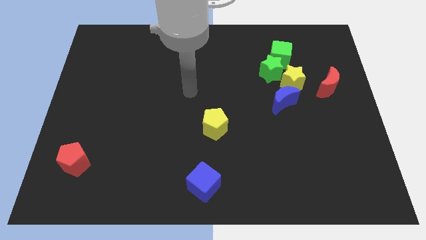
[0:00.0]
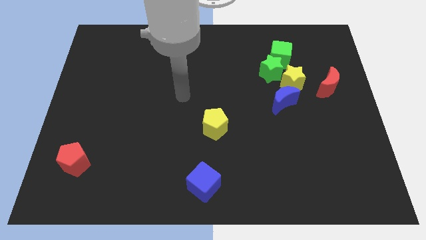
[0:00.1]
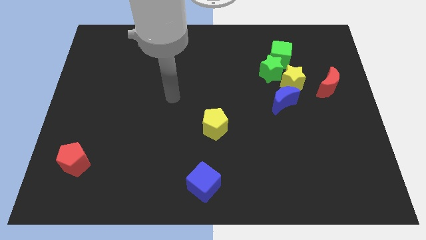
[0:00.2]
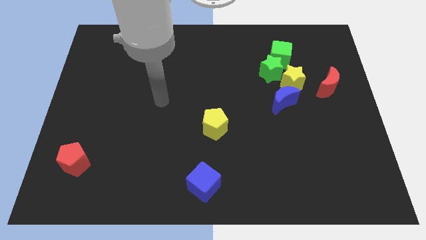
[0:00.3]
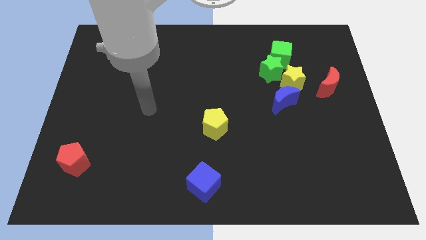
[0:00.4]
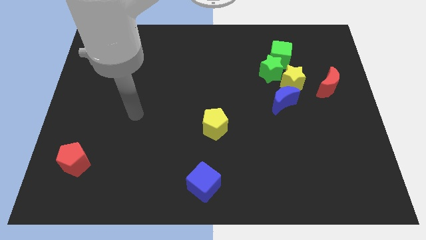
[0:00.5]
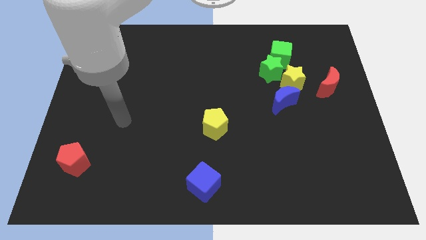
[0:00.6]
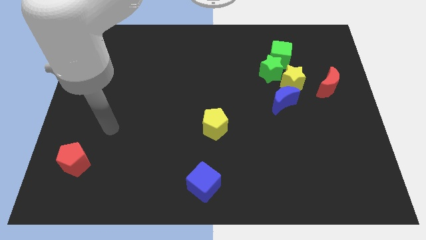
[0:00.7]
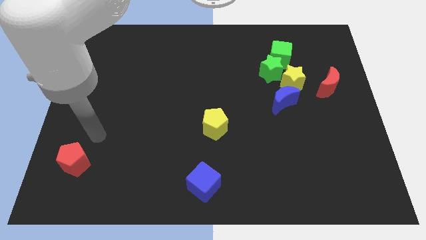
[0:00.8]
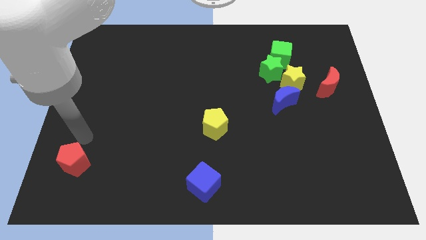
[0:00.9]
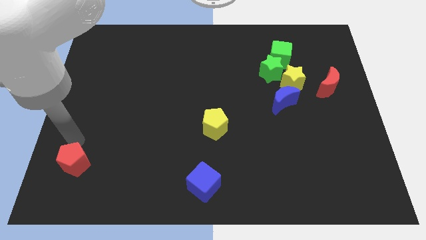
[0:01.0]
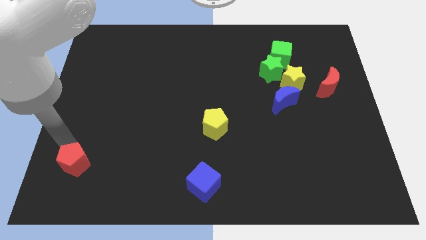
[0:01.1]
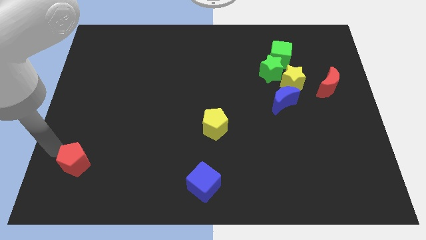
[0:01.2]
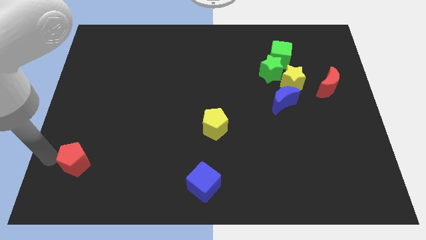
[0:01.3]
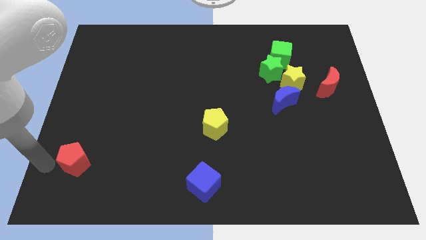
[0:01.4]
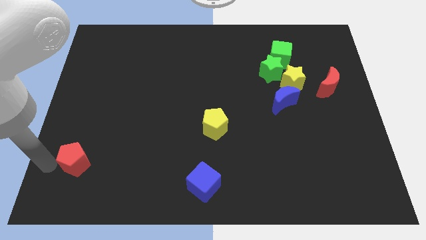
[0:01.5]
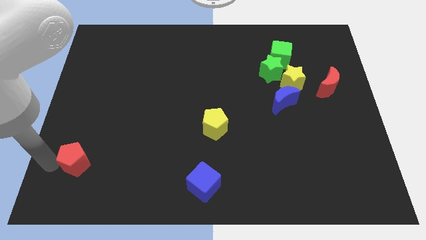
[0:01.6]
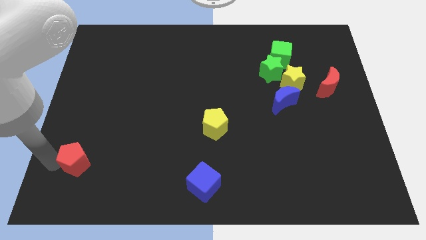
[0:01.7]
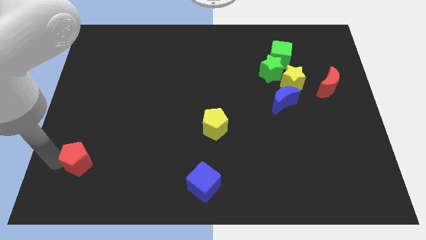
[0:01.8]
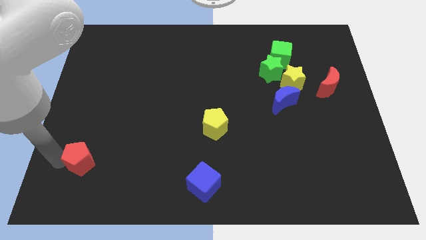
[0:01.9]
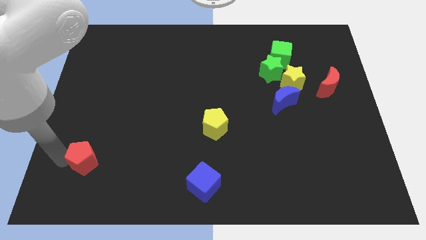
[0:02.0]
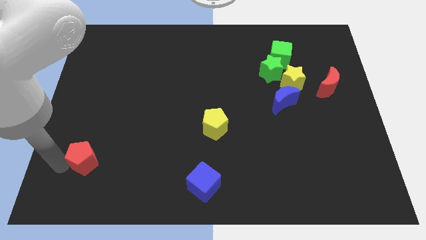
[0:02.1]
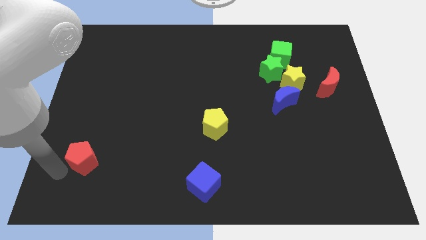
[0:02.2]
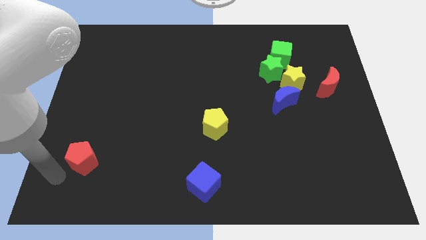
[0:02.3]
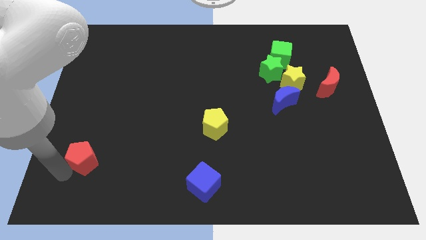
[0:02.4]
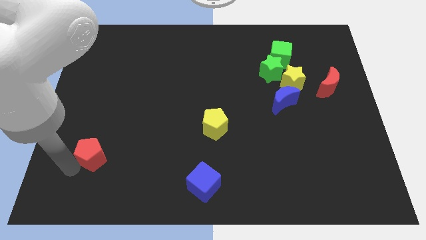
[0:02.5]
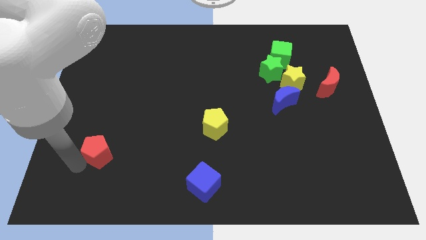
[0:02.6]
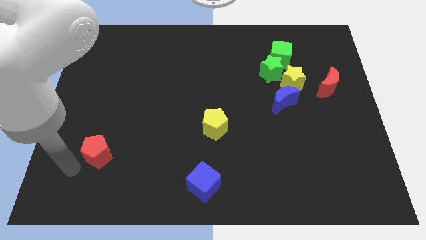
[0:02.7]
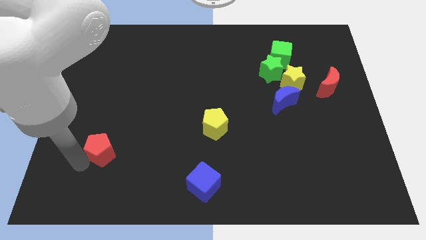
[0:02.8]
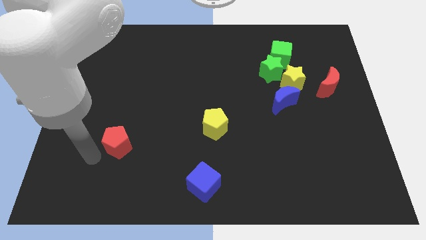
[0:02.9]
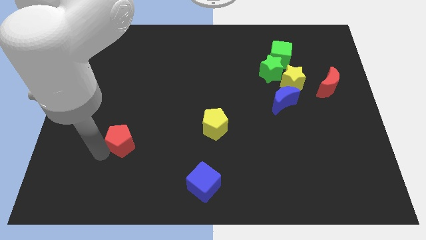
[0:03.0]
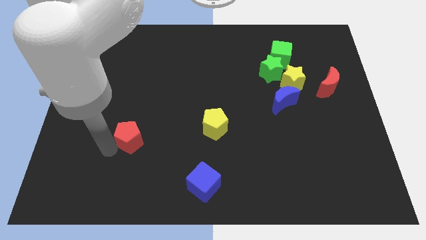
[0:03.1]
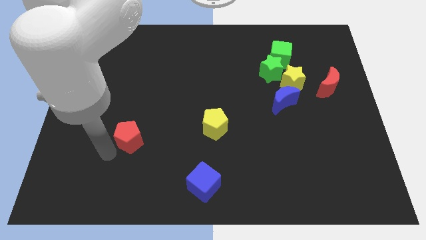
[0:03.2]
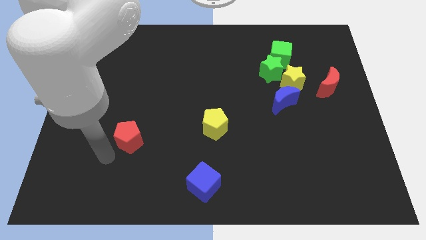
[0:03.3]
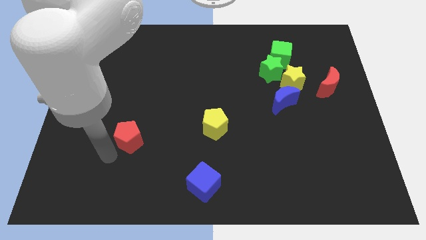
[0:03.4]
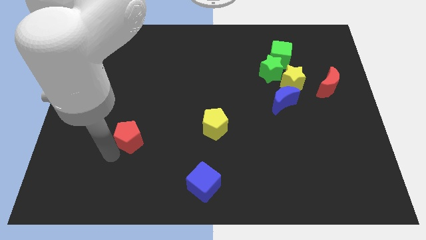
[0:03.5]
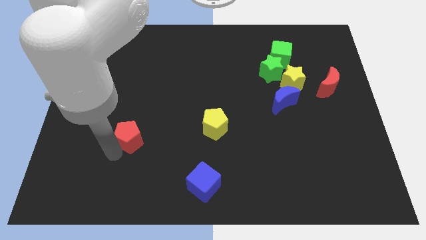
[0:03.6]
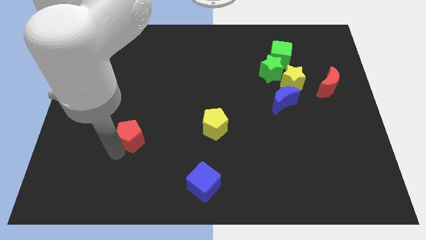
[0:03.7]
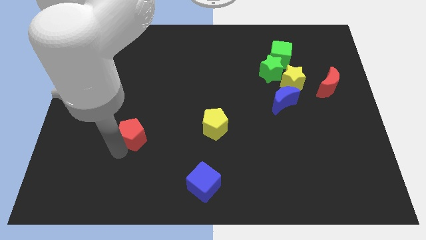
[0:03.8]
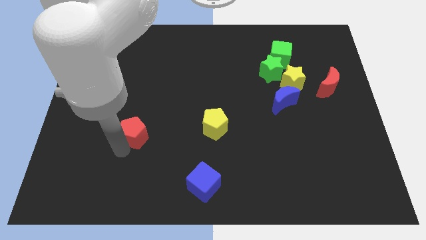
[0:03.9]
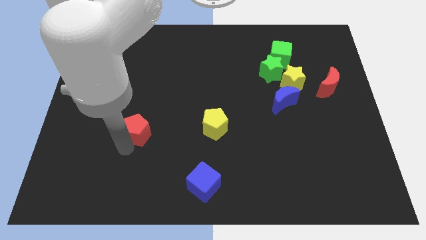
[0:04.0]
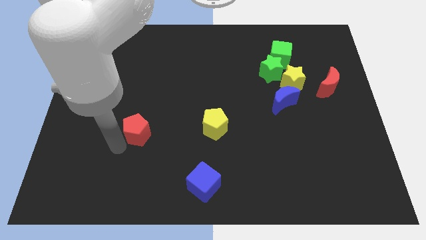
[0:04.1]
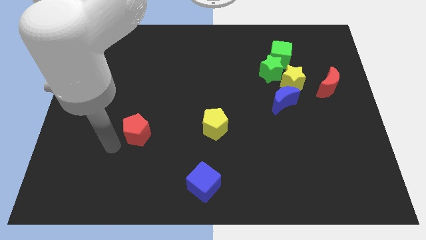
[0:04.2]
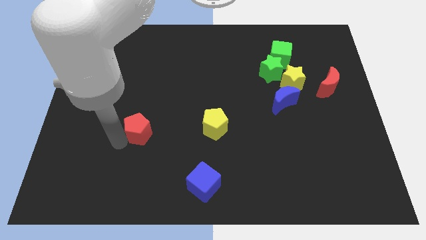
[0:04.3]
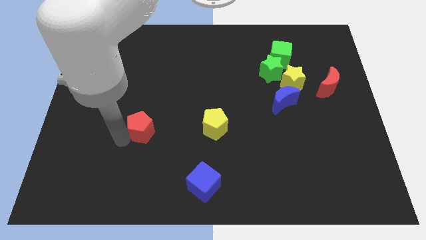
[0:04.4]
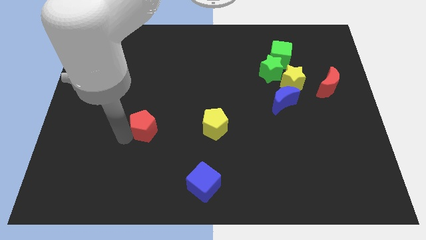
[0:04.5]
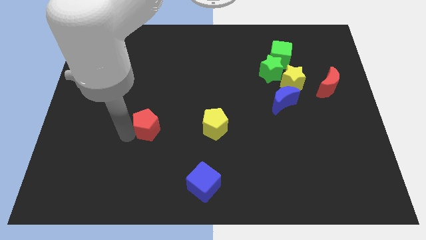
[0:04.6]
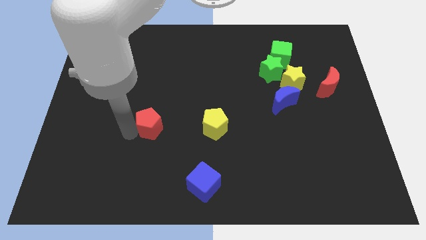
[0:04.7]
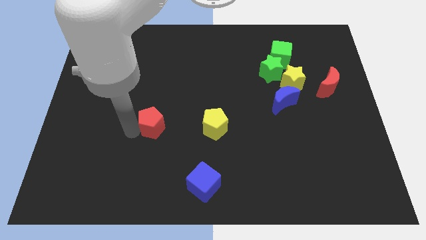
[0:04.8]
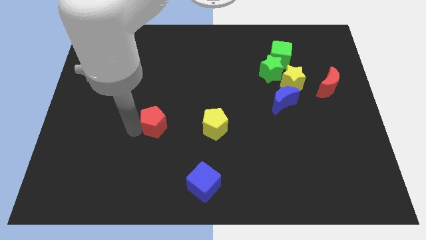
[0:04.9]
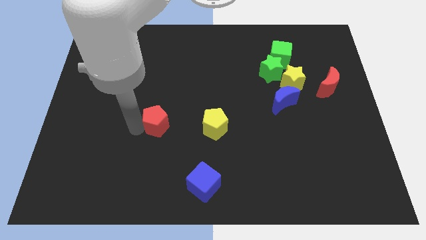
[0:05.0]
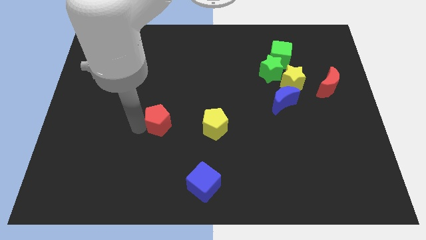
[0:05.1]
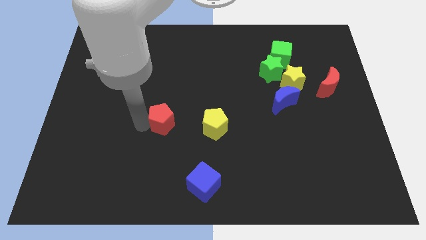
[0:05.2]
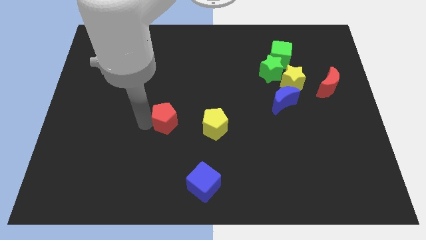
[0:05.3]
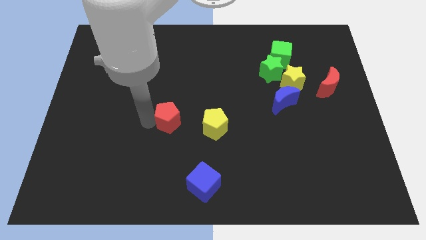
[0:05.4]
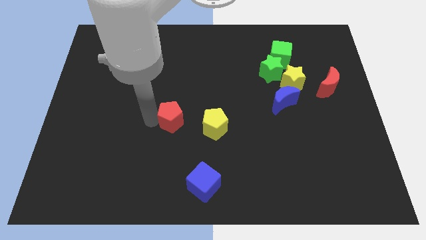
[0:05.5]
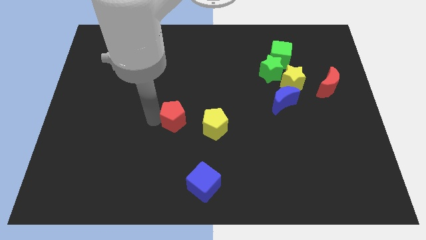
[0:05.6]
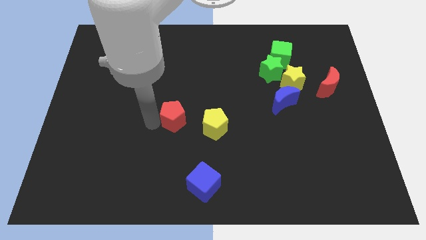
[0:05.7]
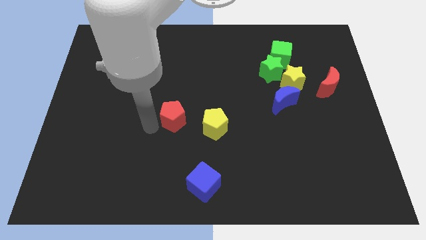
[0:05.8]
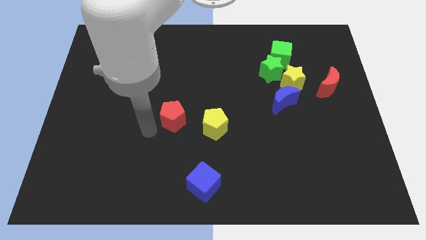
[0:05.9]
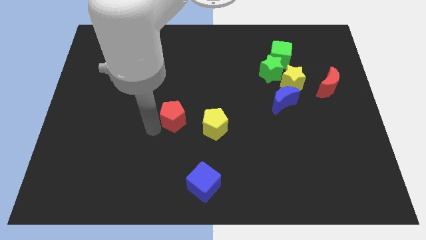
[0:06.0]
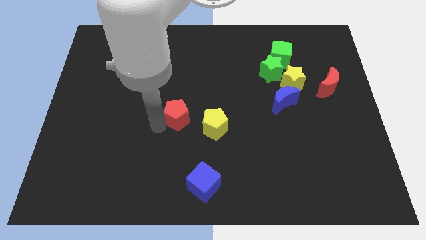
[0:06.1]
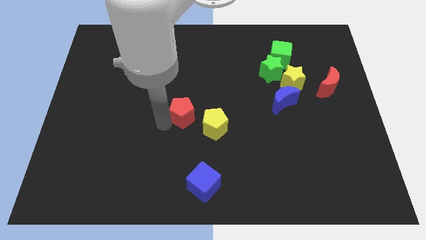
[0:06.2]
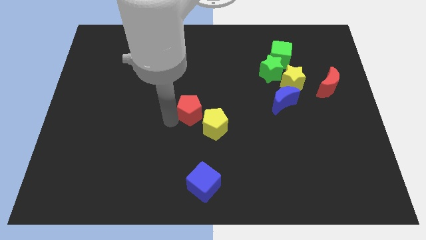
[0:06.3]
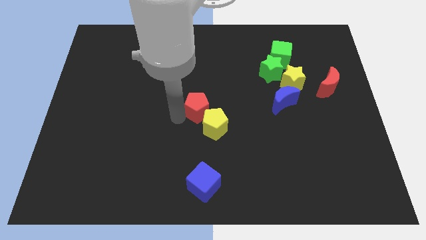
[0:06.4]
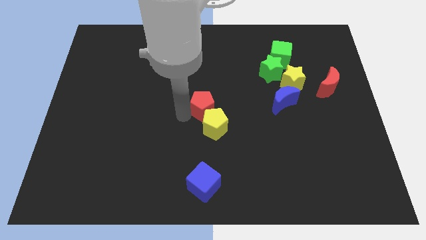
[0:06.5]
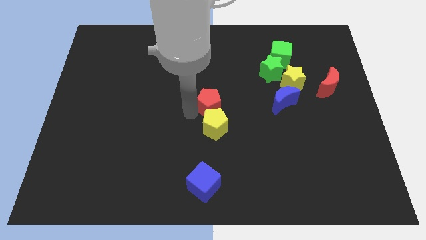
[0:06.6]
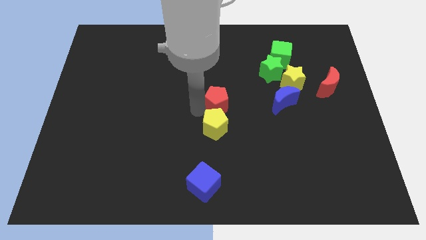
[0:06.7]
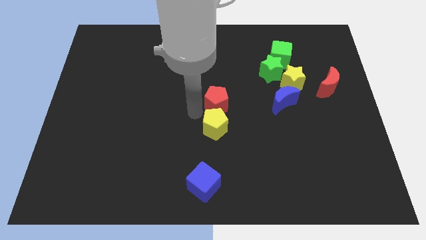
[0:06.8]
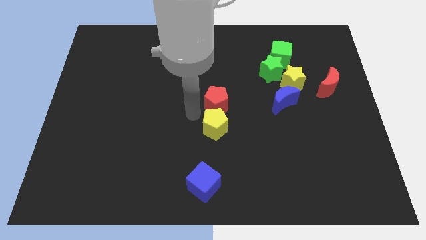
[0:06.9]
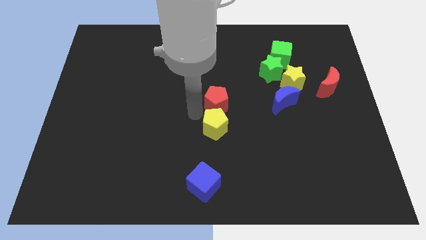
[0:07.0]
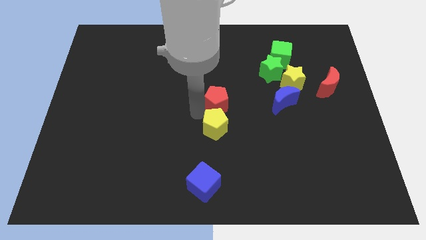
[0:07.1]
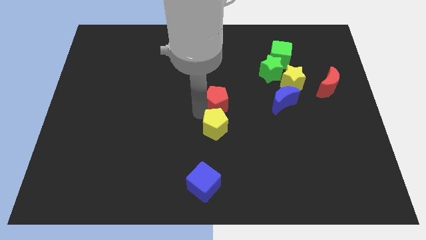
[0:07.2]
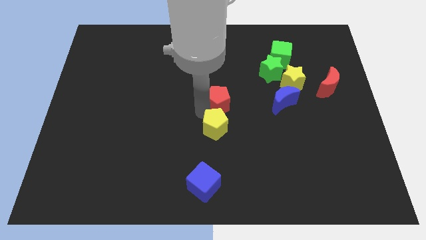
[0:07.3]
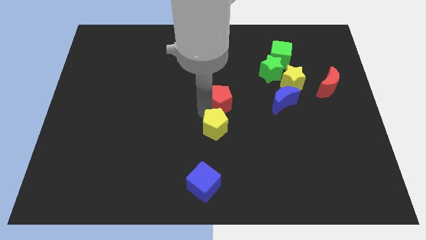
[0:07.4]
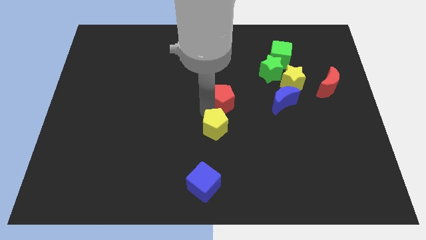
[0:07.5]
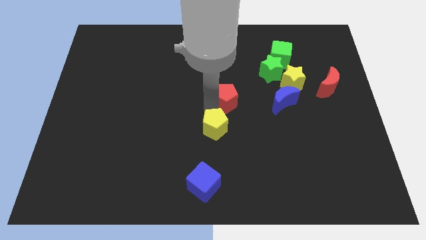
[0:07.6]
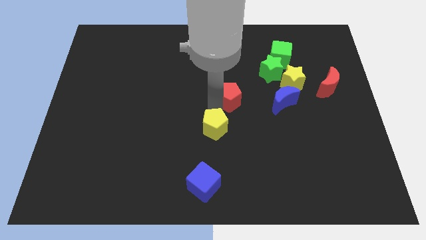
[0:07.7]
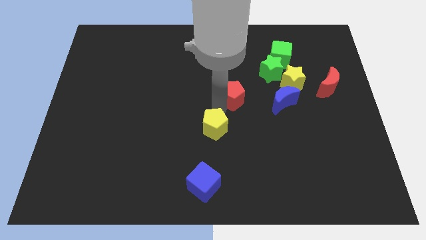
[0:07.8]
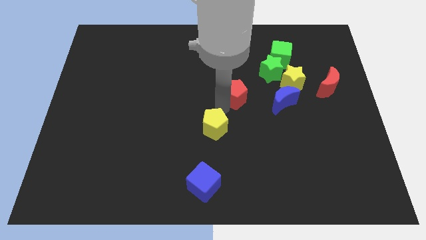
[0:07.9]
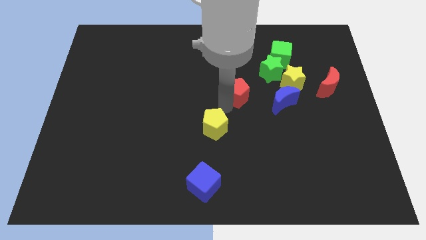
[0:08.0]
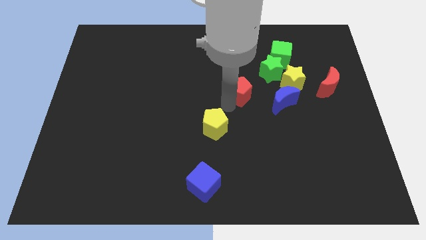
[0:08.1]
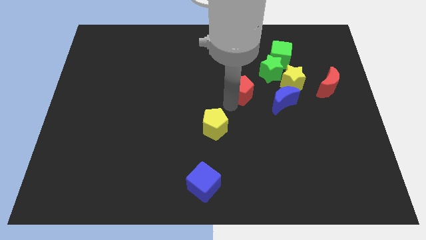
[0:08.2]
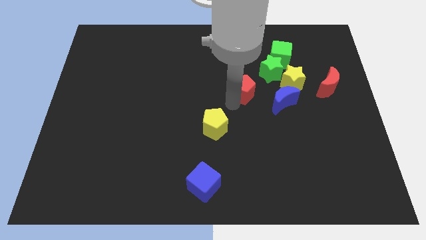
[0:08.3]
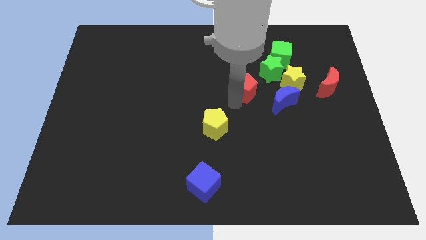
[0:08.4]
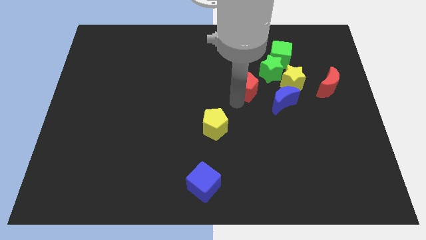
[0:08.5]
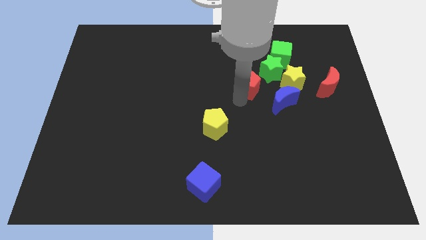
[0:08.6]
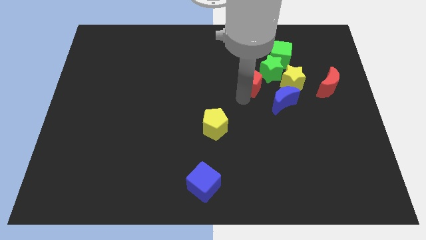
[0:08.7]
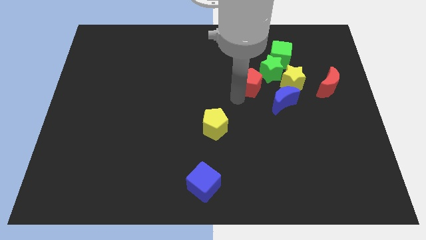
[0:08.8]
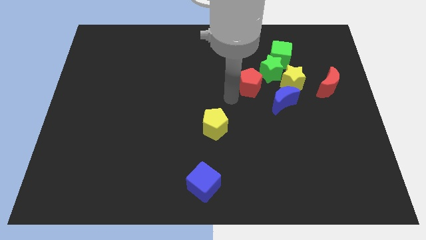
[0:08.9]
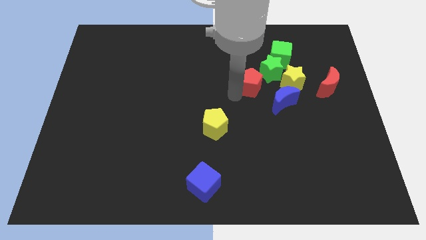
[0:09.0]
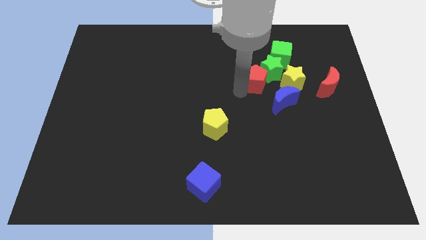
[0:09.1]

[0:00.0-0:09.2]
put the red pentagon close to the green star
